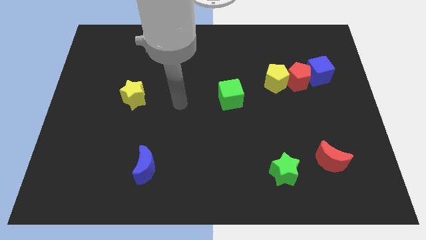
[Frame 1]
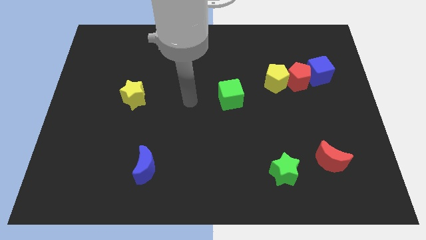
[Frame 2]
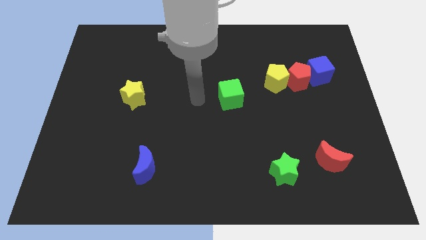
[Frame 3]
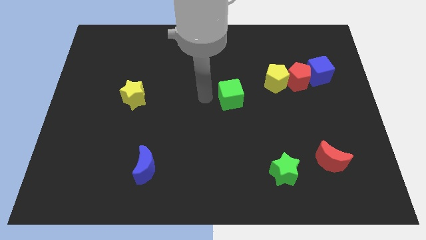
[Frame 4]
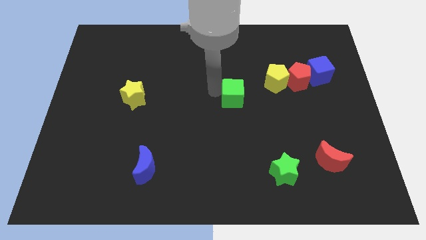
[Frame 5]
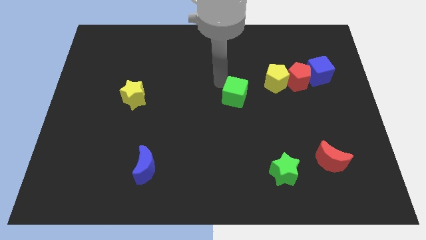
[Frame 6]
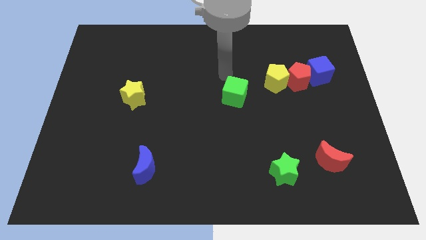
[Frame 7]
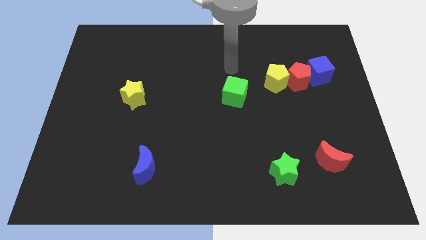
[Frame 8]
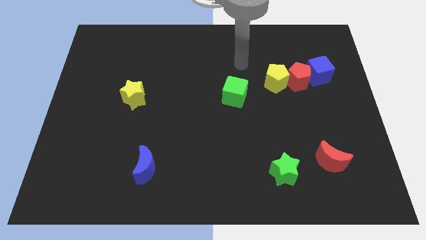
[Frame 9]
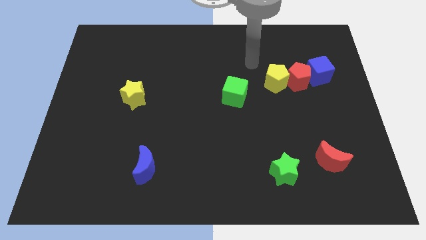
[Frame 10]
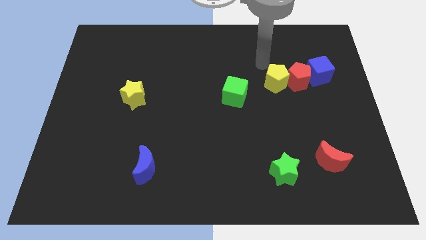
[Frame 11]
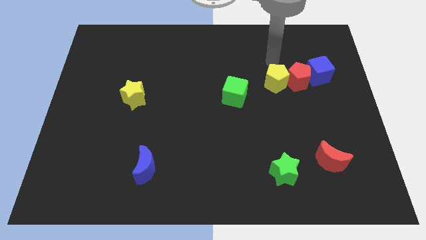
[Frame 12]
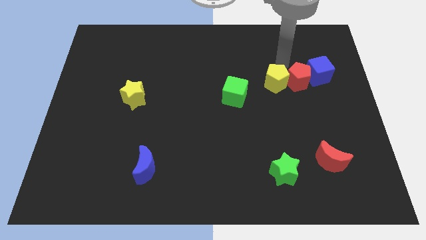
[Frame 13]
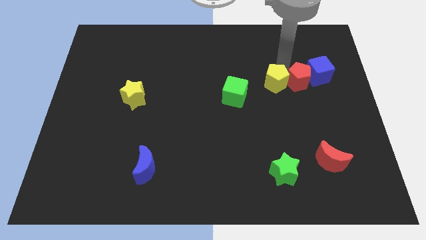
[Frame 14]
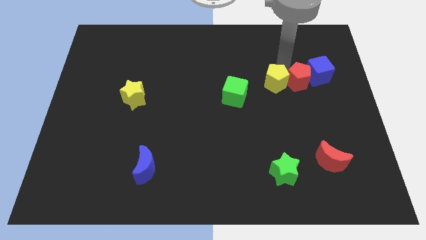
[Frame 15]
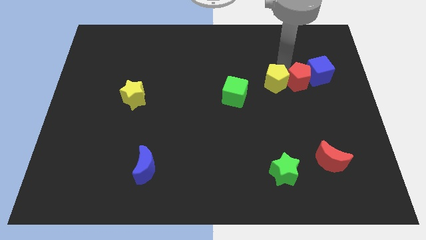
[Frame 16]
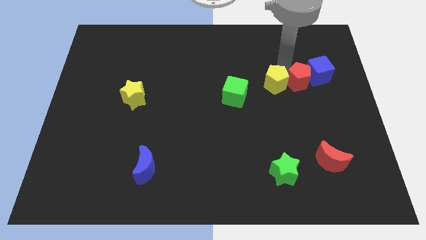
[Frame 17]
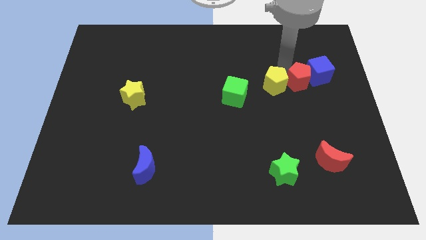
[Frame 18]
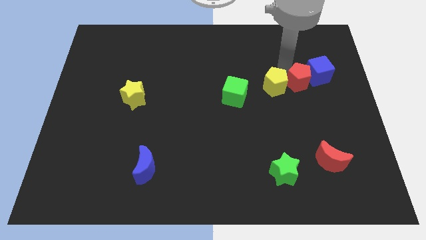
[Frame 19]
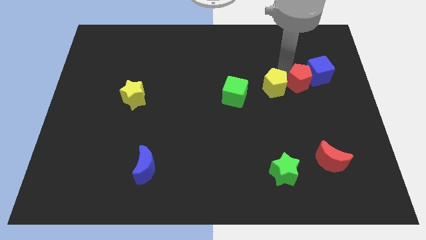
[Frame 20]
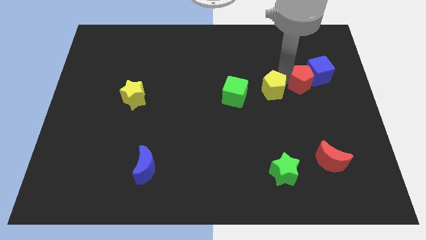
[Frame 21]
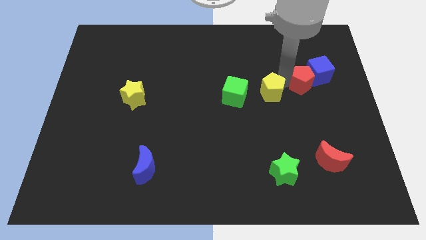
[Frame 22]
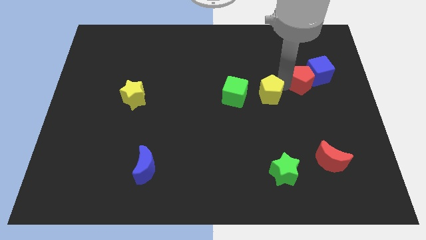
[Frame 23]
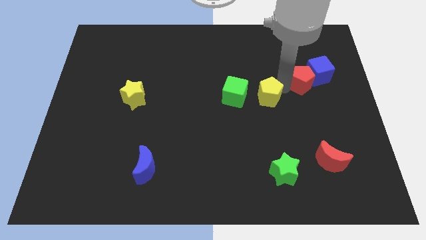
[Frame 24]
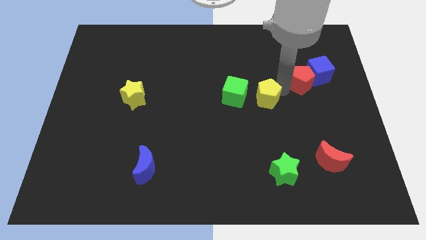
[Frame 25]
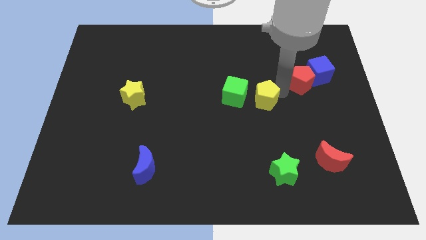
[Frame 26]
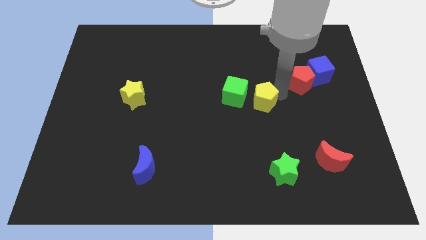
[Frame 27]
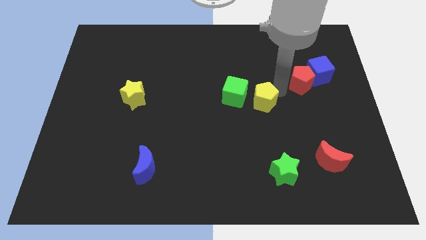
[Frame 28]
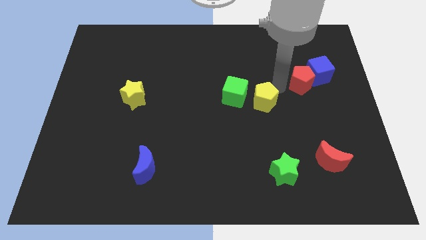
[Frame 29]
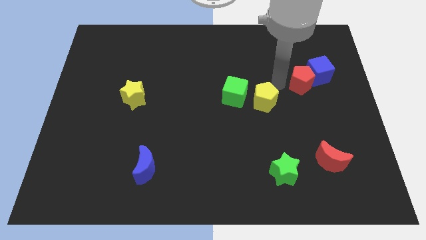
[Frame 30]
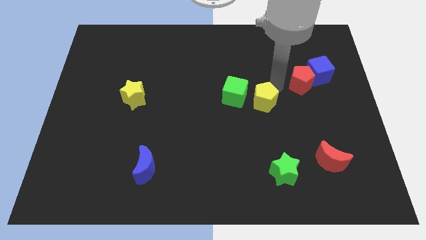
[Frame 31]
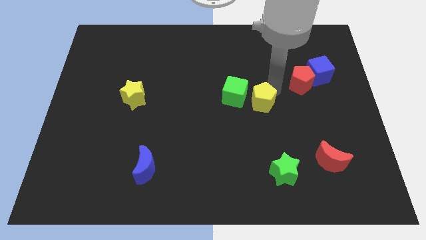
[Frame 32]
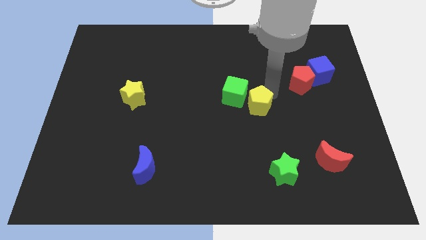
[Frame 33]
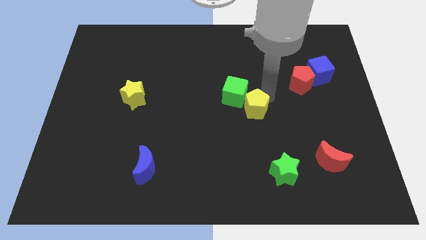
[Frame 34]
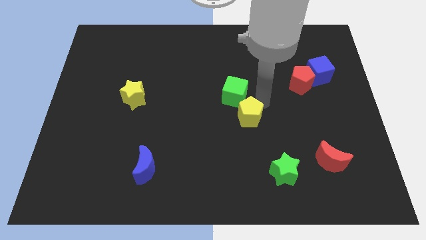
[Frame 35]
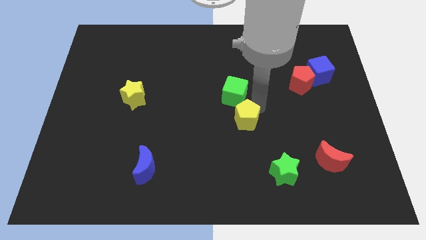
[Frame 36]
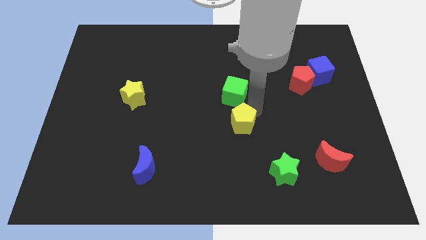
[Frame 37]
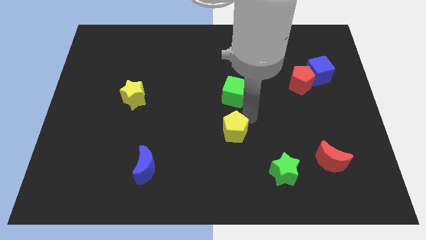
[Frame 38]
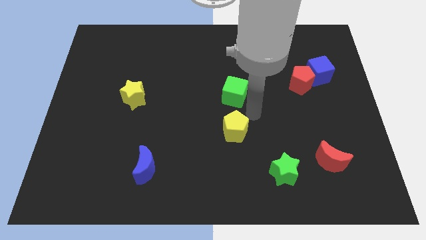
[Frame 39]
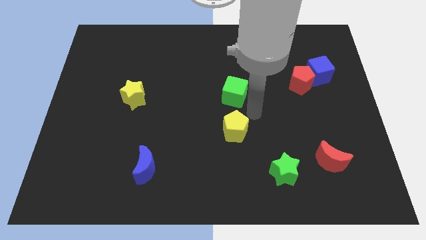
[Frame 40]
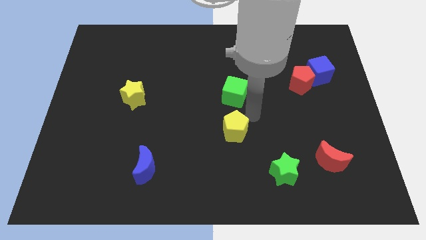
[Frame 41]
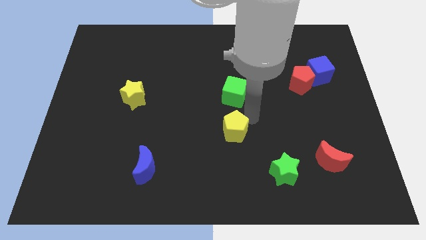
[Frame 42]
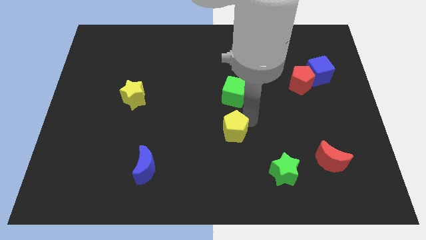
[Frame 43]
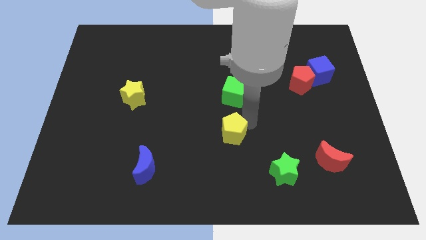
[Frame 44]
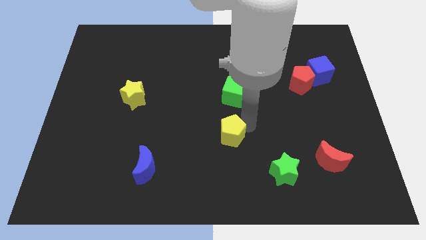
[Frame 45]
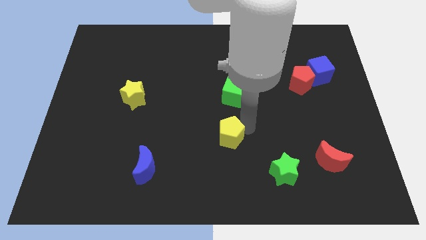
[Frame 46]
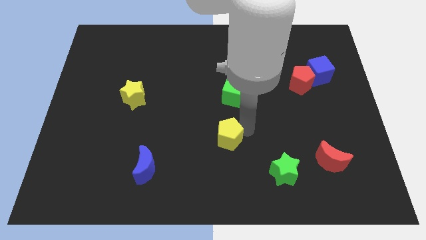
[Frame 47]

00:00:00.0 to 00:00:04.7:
push the yellow pentagon diagonally down and to the left

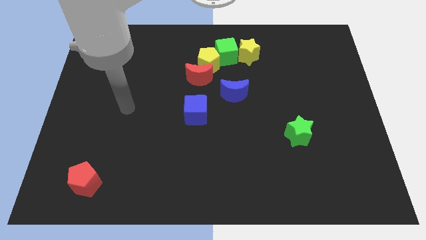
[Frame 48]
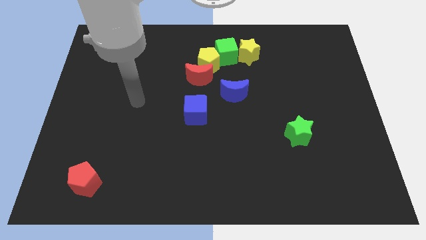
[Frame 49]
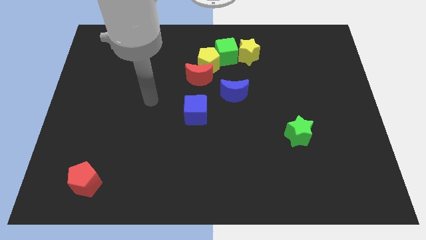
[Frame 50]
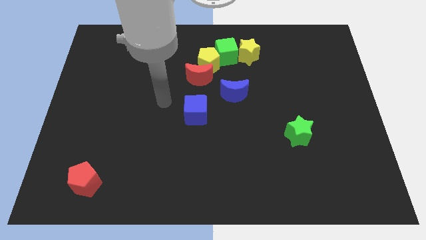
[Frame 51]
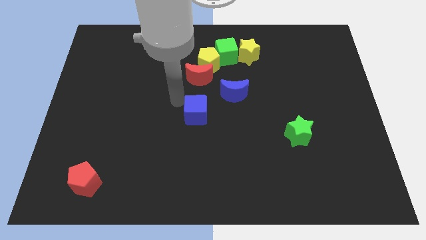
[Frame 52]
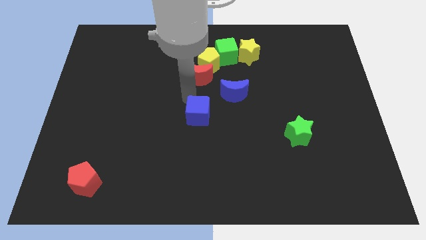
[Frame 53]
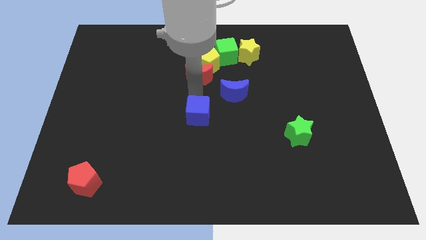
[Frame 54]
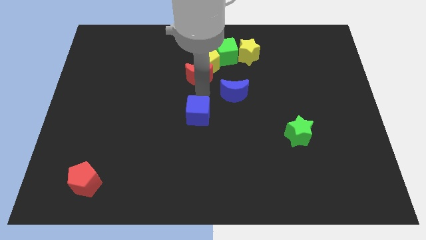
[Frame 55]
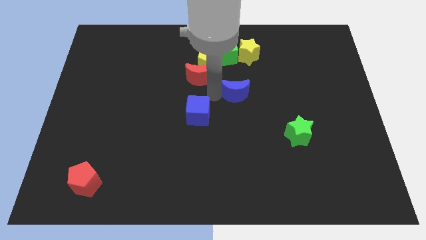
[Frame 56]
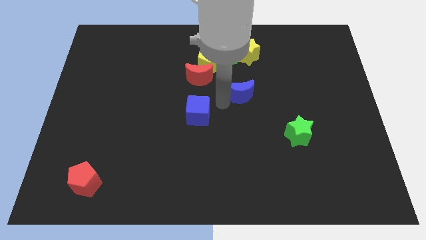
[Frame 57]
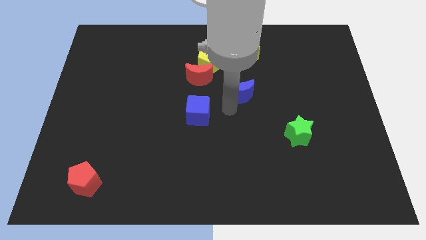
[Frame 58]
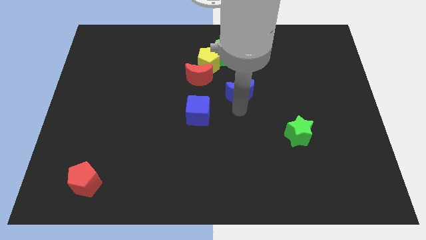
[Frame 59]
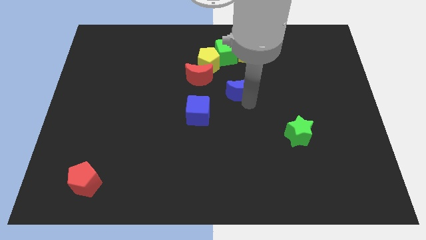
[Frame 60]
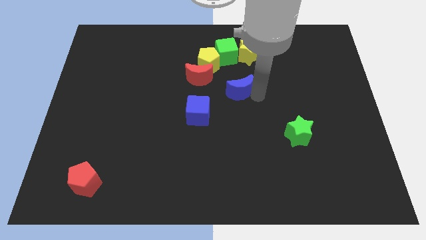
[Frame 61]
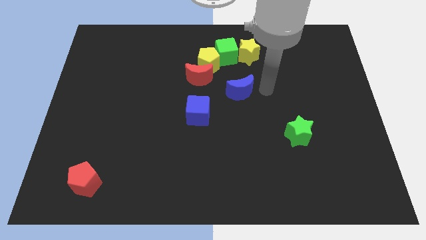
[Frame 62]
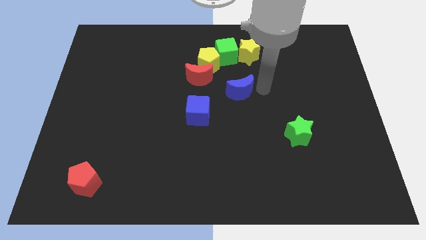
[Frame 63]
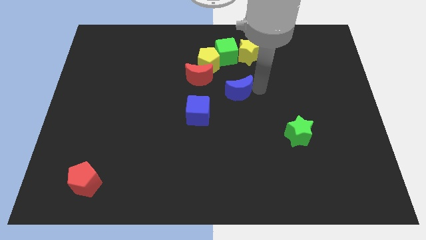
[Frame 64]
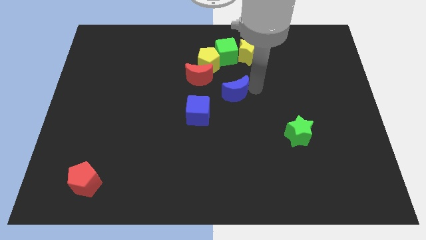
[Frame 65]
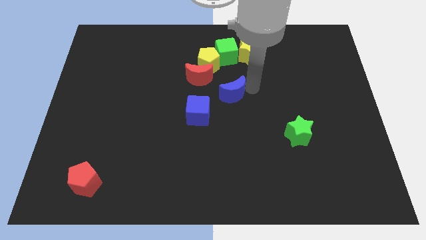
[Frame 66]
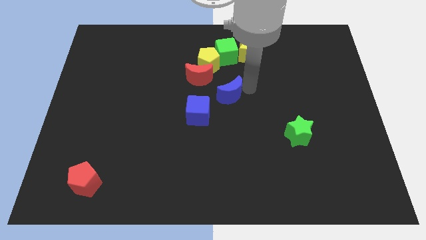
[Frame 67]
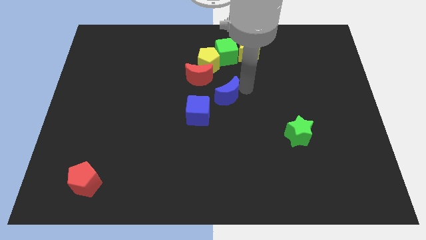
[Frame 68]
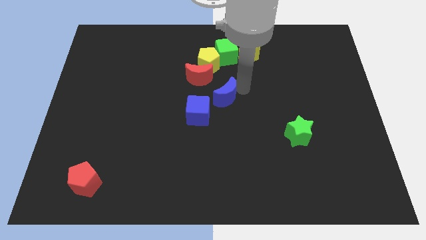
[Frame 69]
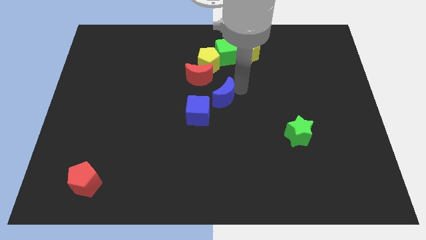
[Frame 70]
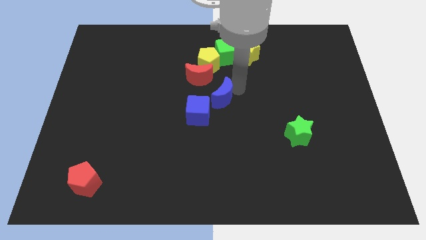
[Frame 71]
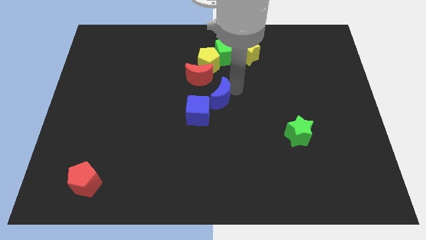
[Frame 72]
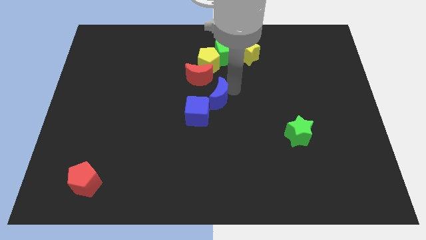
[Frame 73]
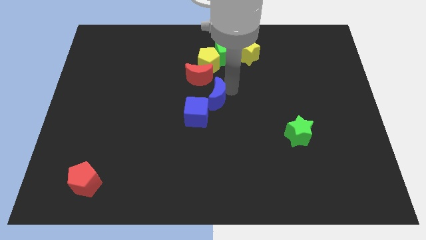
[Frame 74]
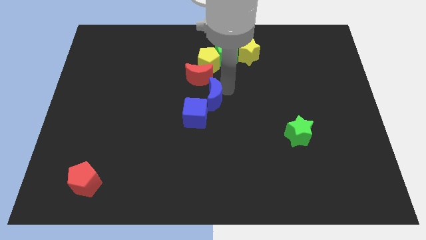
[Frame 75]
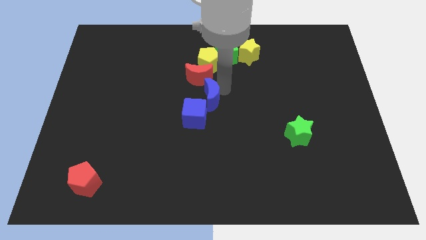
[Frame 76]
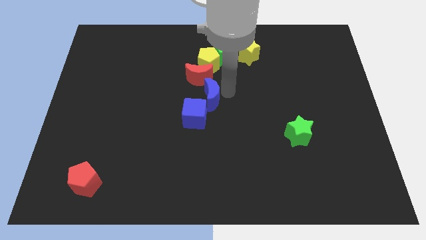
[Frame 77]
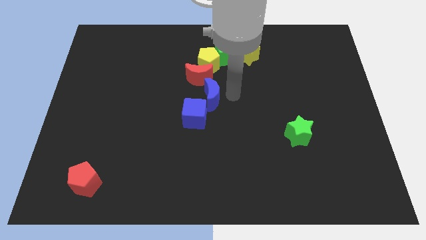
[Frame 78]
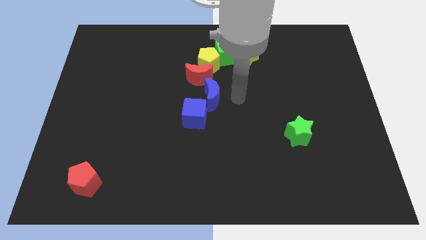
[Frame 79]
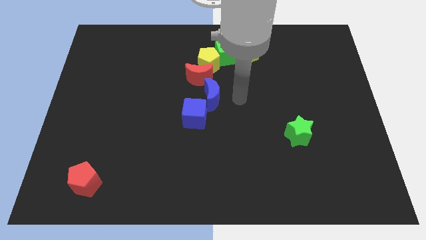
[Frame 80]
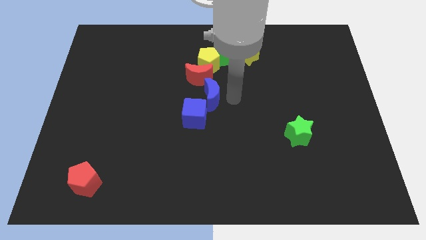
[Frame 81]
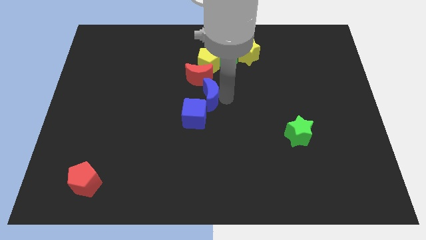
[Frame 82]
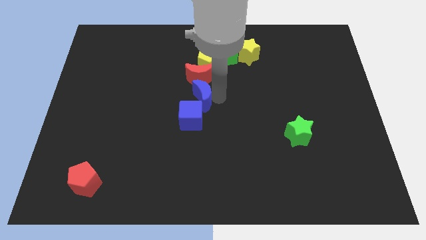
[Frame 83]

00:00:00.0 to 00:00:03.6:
slide the blue moon left a little
